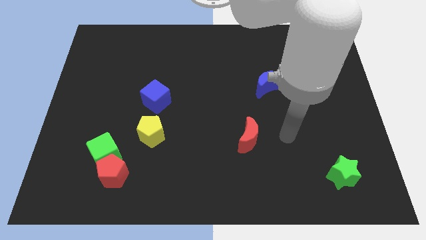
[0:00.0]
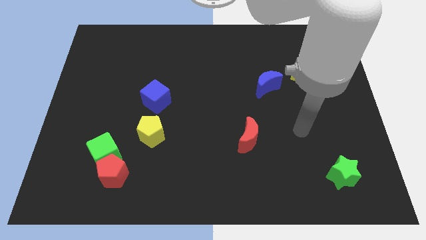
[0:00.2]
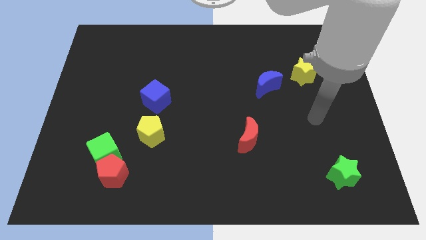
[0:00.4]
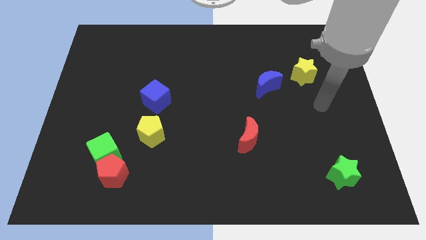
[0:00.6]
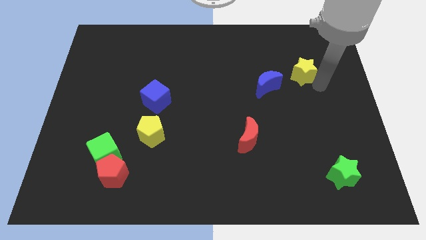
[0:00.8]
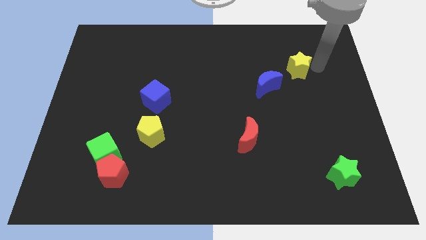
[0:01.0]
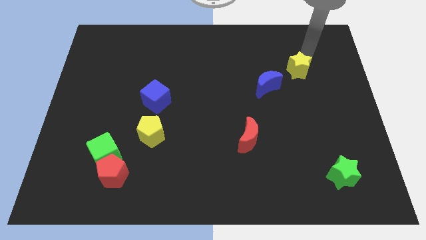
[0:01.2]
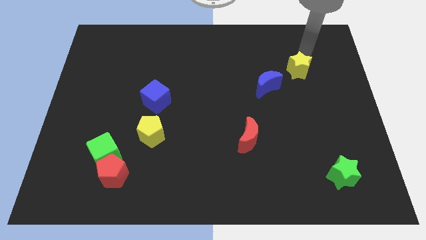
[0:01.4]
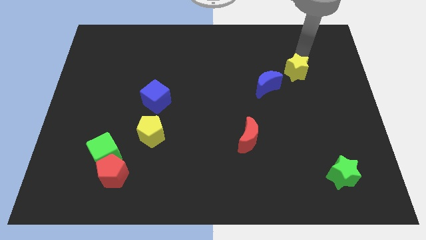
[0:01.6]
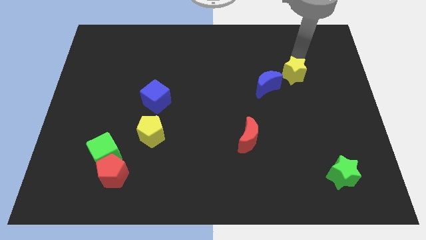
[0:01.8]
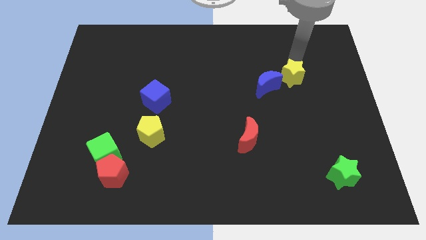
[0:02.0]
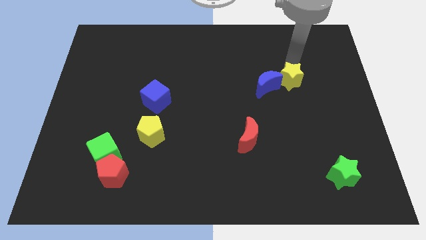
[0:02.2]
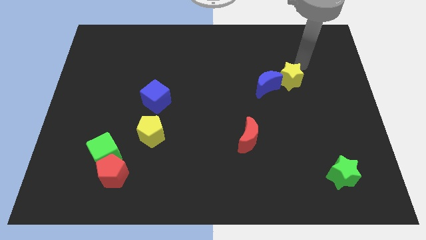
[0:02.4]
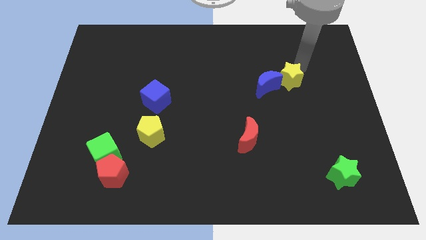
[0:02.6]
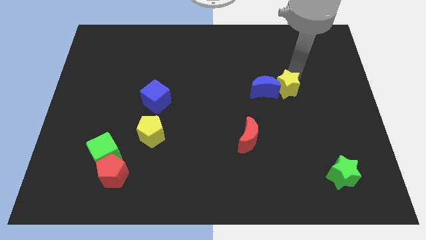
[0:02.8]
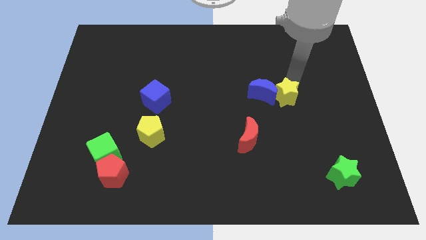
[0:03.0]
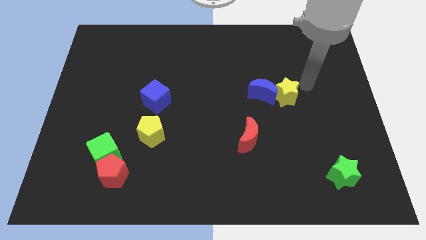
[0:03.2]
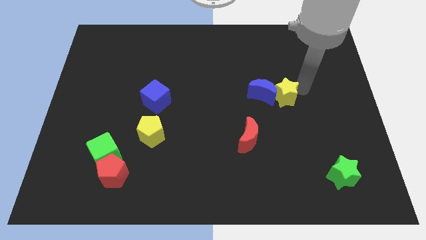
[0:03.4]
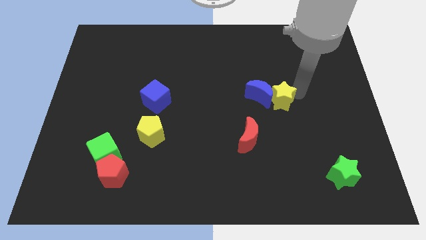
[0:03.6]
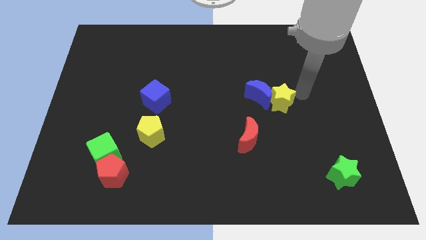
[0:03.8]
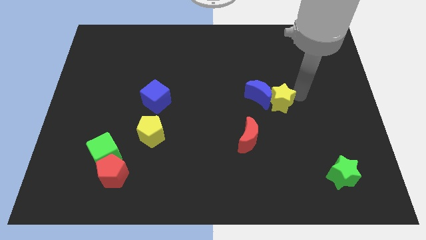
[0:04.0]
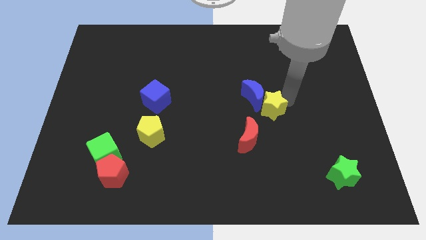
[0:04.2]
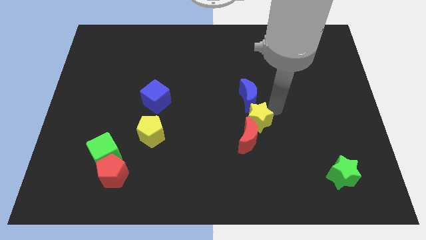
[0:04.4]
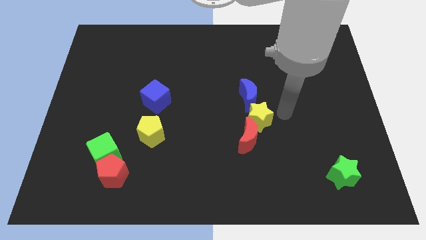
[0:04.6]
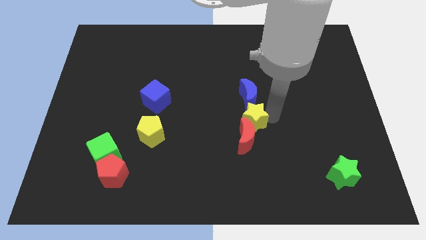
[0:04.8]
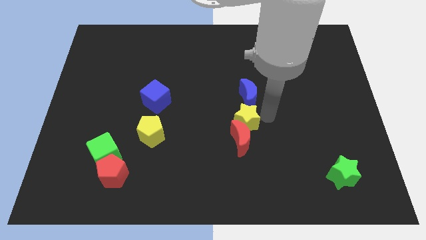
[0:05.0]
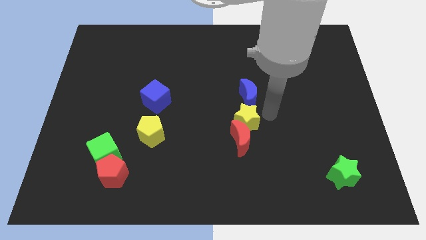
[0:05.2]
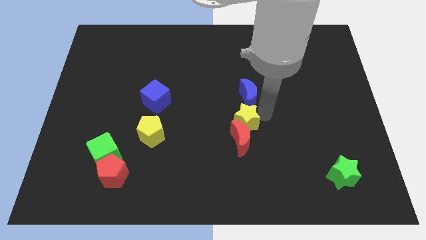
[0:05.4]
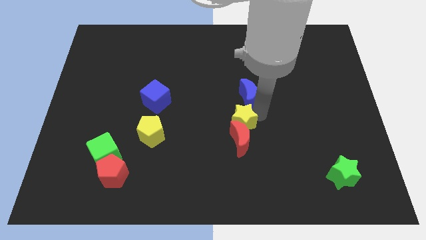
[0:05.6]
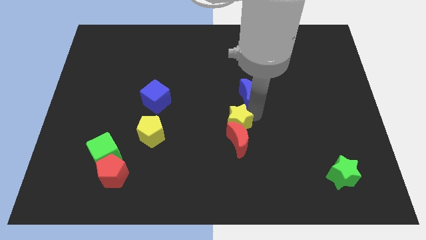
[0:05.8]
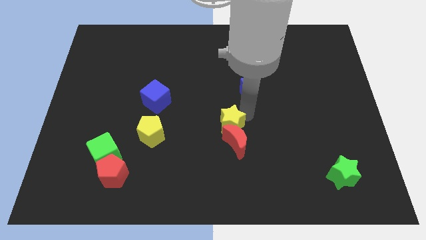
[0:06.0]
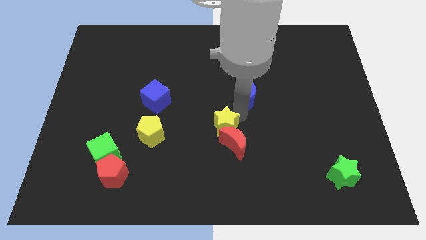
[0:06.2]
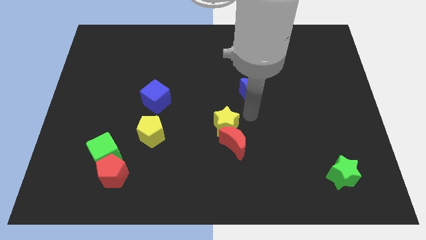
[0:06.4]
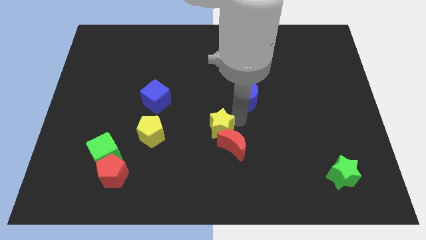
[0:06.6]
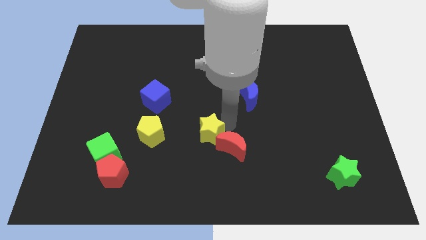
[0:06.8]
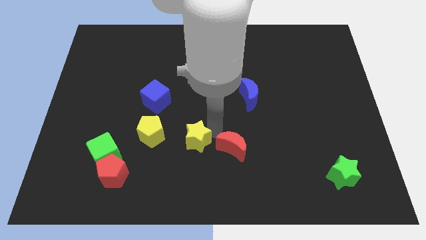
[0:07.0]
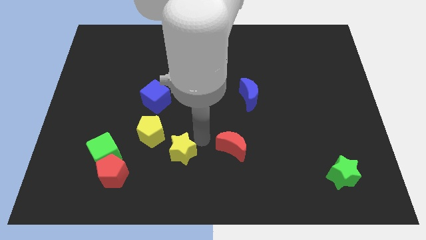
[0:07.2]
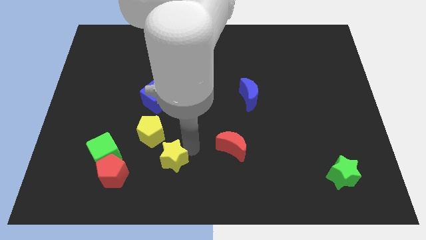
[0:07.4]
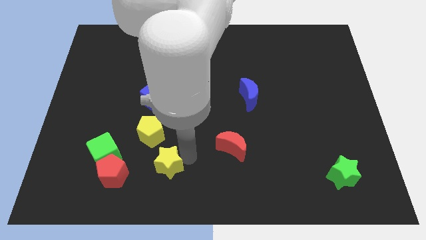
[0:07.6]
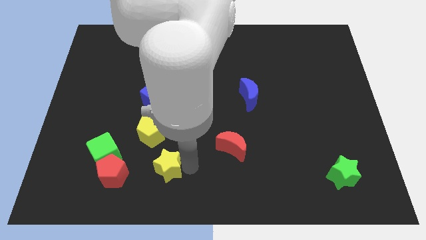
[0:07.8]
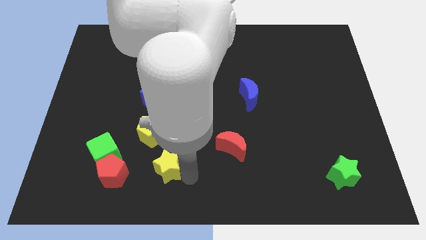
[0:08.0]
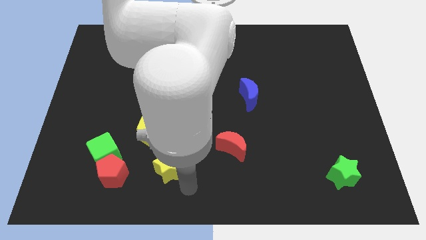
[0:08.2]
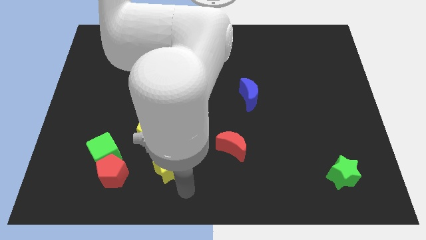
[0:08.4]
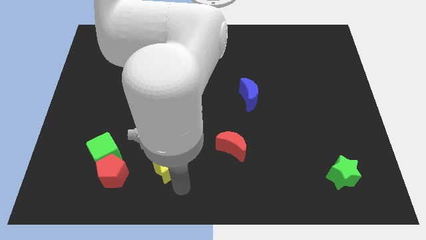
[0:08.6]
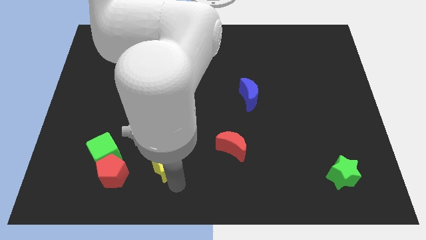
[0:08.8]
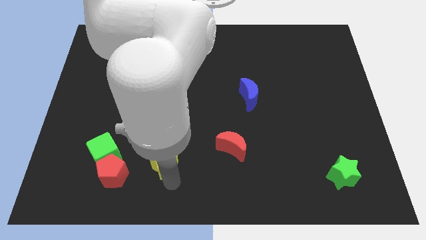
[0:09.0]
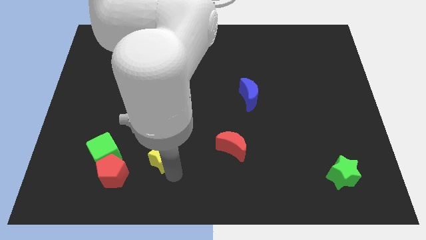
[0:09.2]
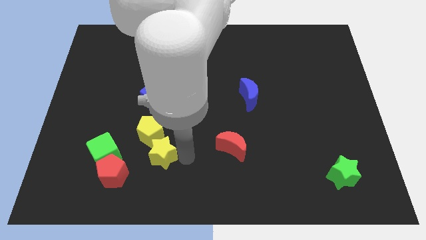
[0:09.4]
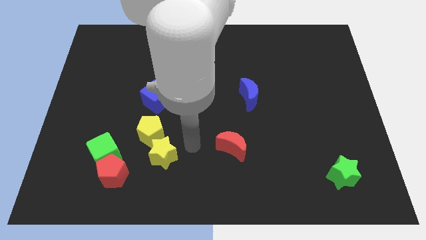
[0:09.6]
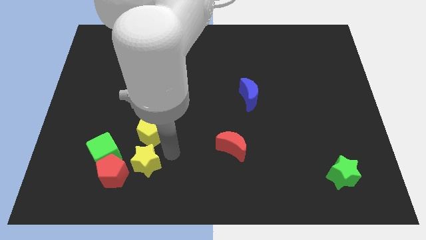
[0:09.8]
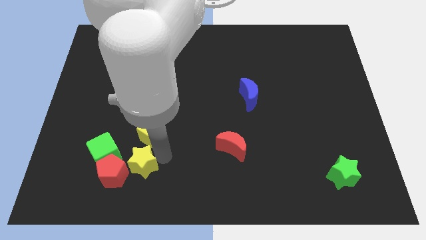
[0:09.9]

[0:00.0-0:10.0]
push the yellow star close to the red pentagon

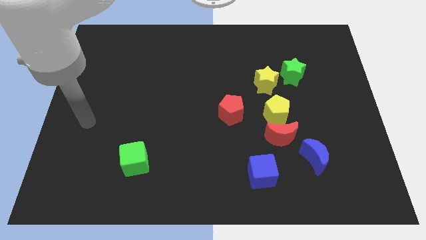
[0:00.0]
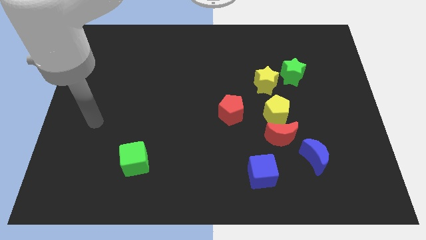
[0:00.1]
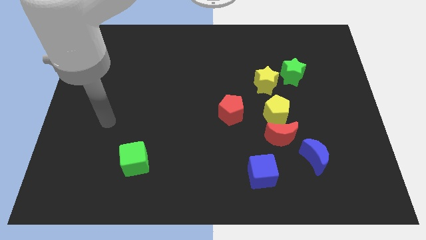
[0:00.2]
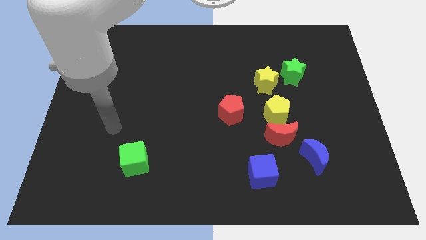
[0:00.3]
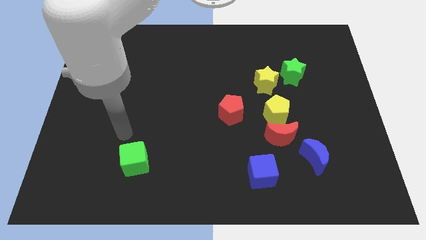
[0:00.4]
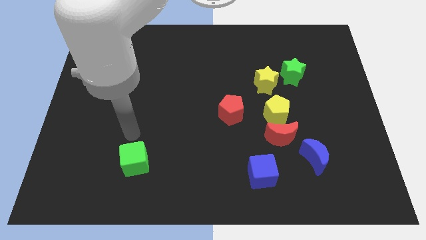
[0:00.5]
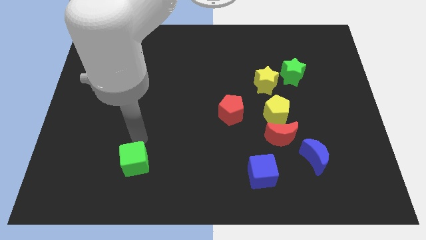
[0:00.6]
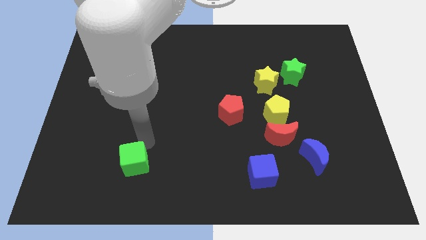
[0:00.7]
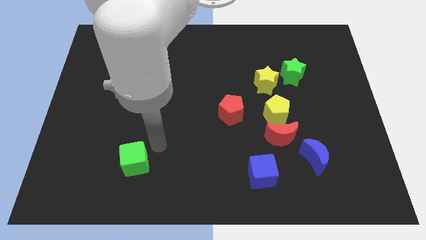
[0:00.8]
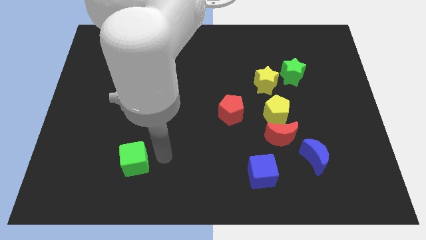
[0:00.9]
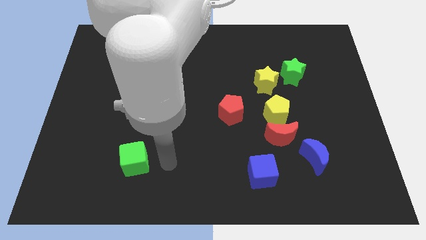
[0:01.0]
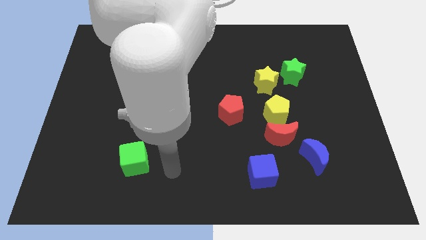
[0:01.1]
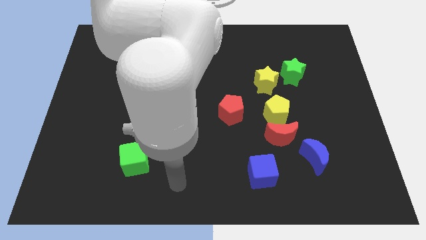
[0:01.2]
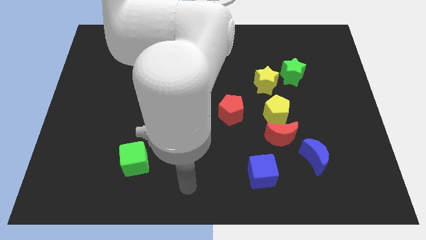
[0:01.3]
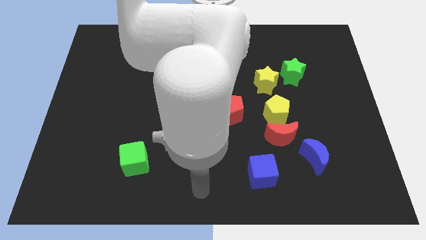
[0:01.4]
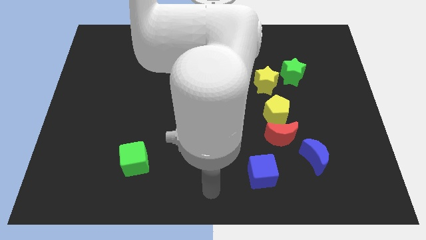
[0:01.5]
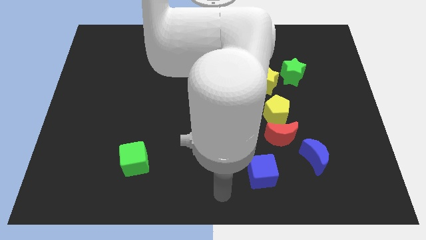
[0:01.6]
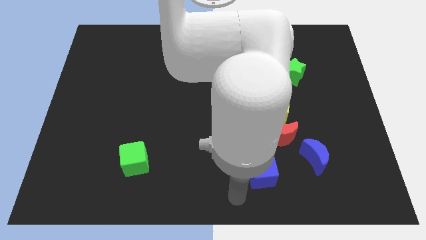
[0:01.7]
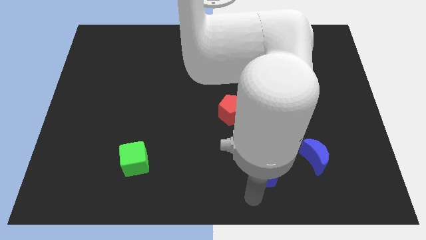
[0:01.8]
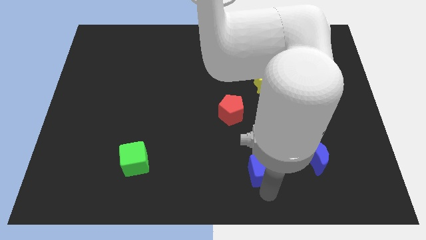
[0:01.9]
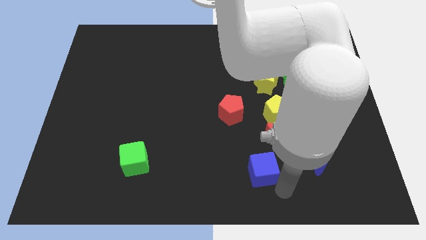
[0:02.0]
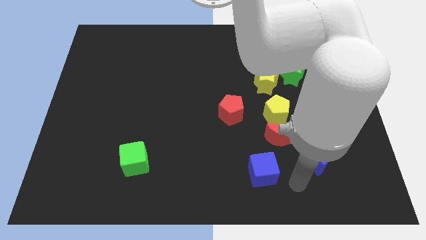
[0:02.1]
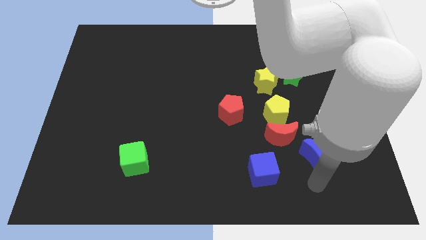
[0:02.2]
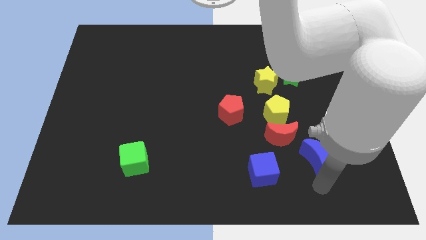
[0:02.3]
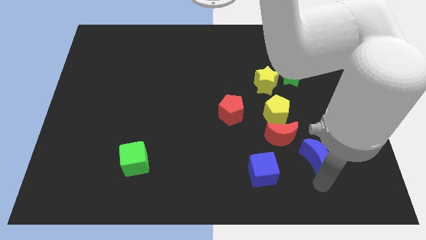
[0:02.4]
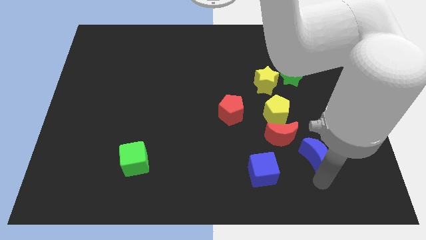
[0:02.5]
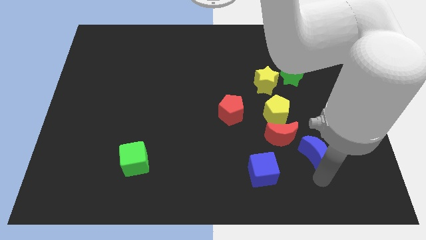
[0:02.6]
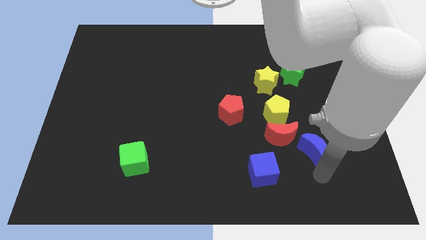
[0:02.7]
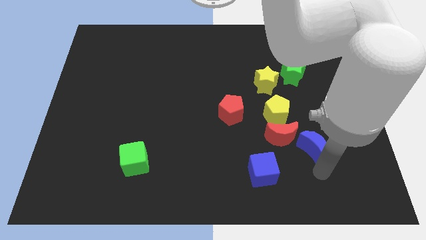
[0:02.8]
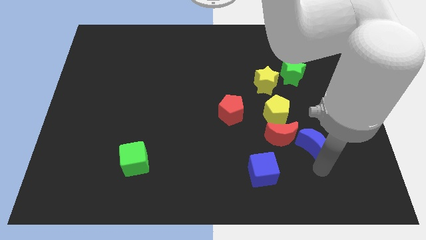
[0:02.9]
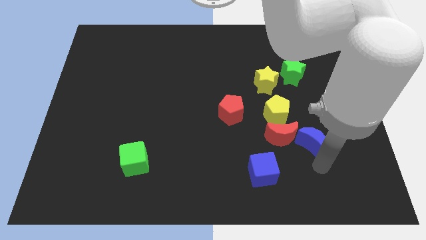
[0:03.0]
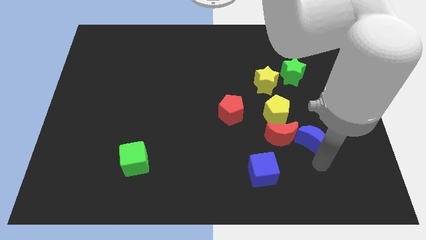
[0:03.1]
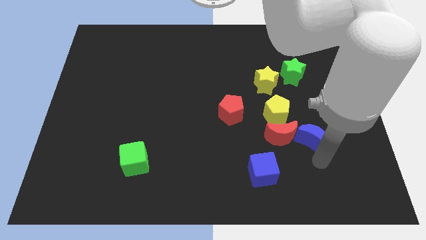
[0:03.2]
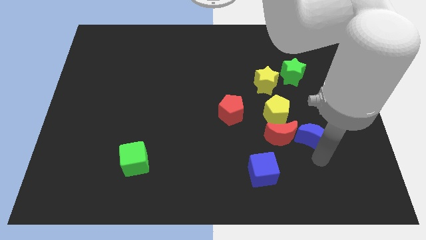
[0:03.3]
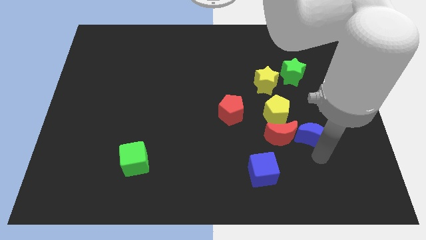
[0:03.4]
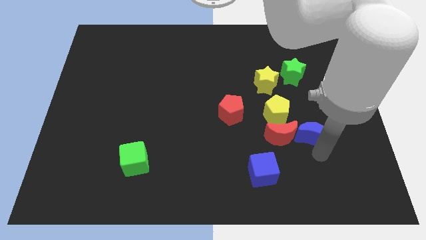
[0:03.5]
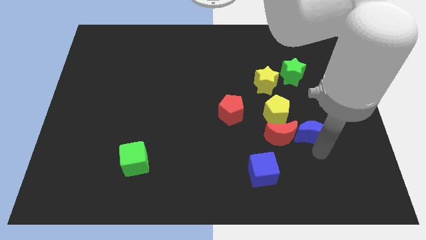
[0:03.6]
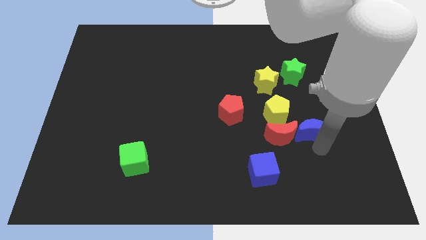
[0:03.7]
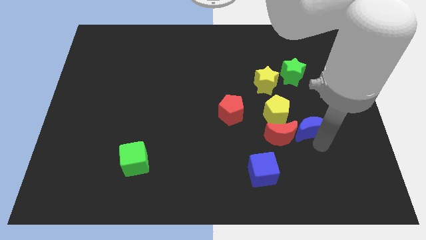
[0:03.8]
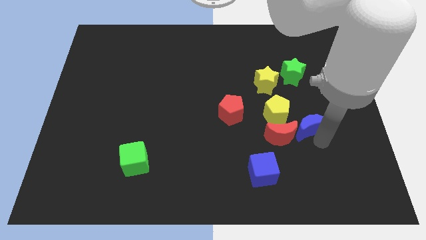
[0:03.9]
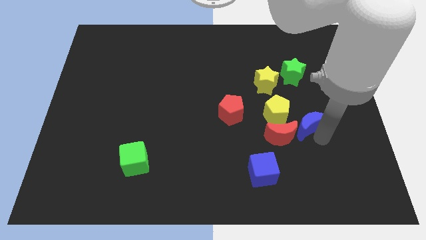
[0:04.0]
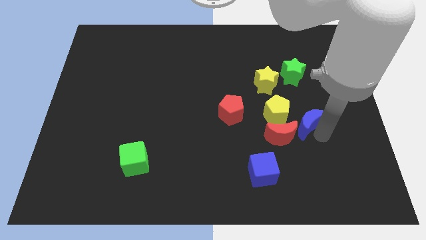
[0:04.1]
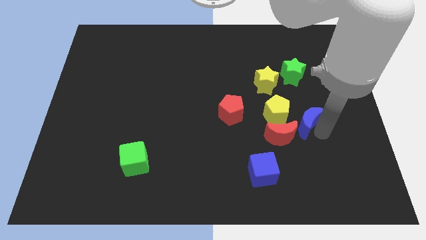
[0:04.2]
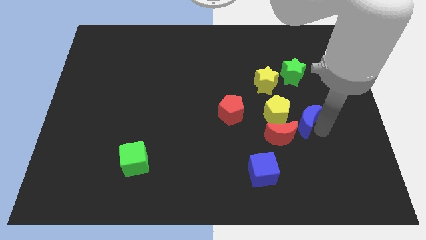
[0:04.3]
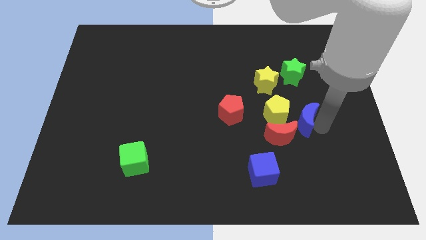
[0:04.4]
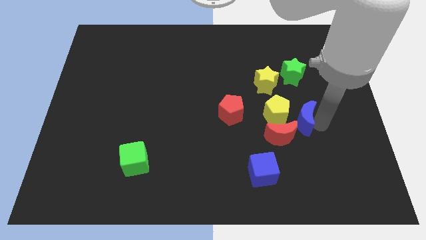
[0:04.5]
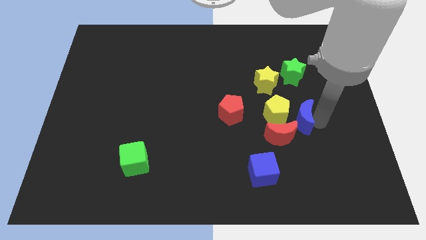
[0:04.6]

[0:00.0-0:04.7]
slide the blue moon towards the yellow pentagon
